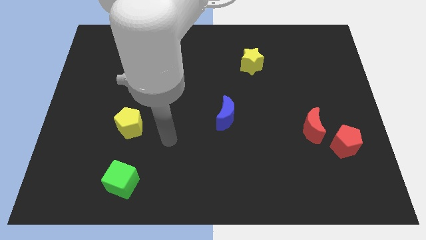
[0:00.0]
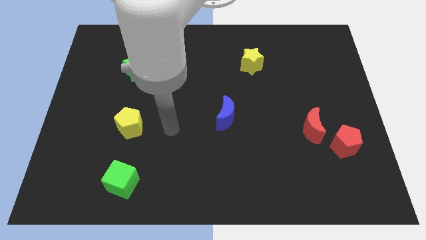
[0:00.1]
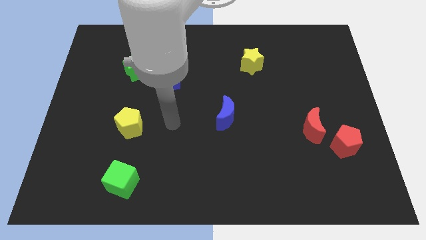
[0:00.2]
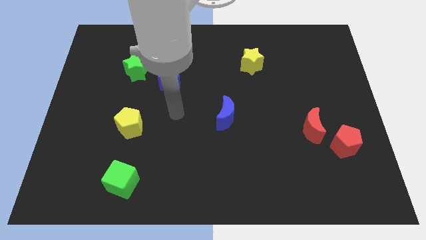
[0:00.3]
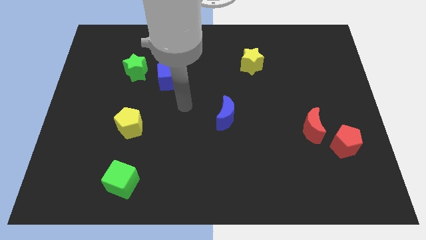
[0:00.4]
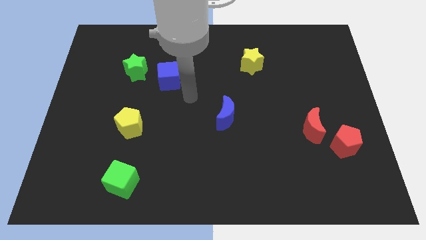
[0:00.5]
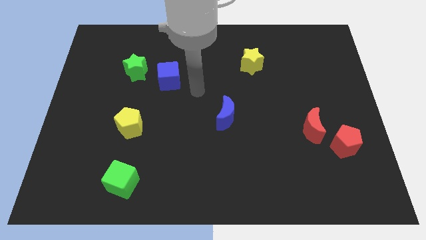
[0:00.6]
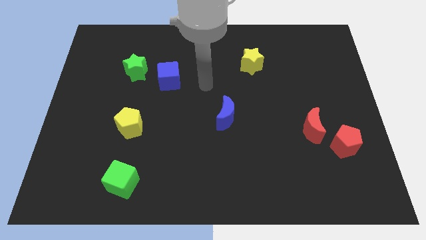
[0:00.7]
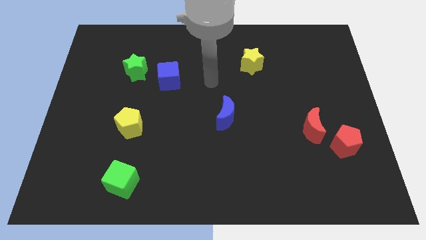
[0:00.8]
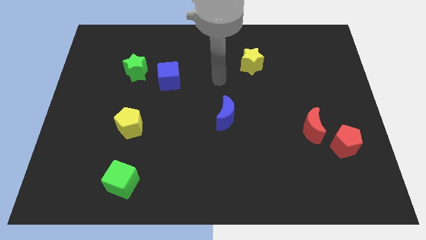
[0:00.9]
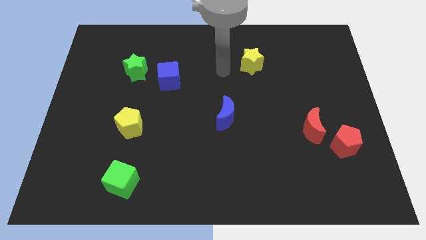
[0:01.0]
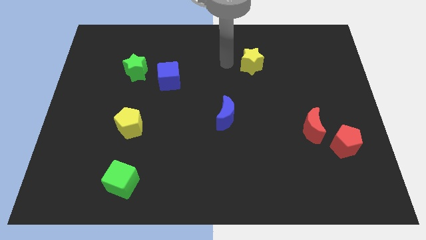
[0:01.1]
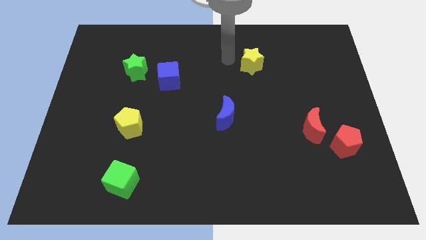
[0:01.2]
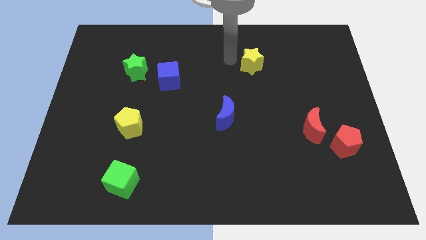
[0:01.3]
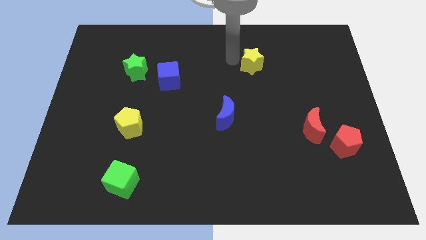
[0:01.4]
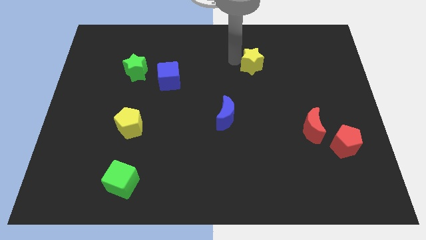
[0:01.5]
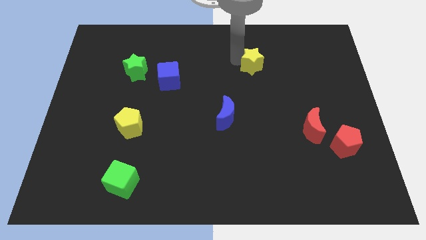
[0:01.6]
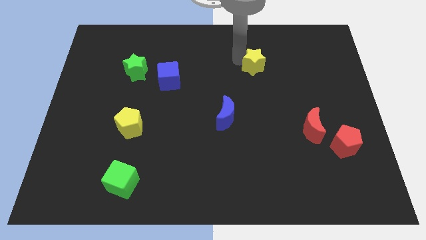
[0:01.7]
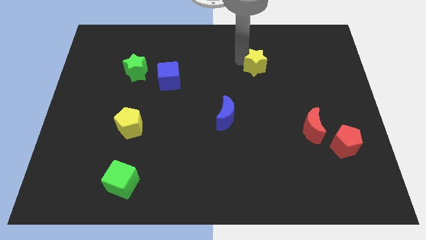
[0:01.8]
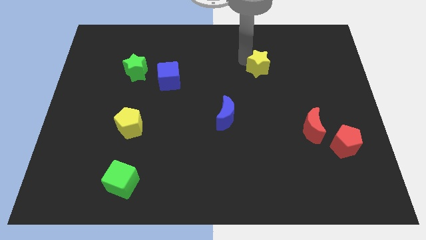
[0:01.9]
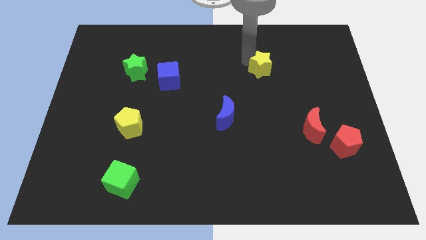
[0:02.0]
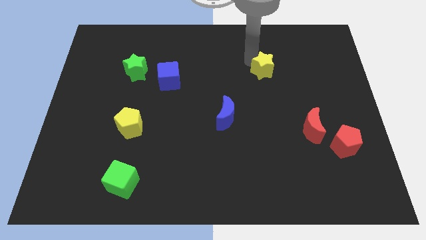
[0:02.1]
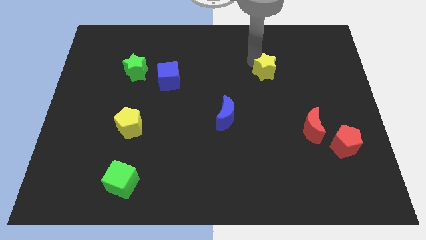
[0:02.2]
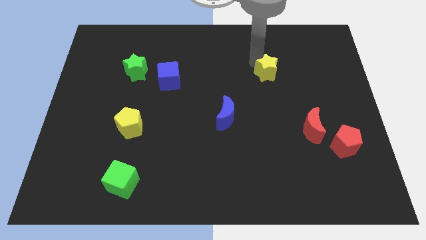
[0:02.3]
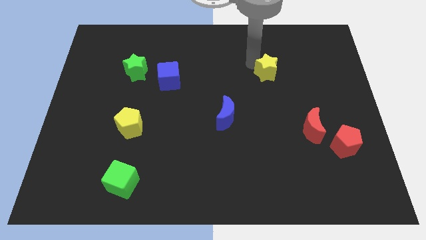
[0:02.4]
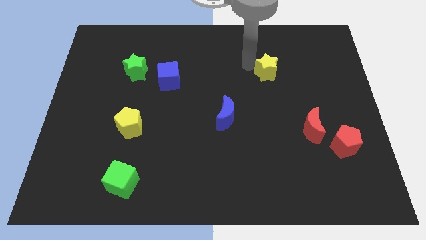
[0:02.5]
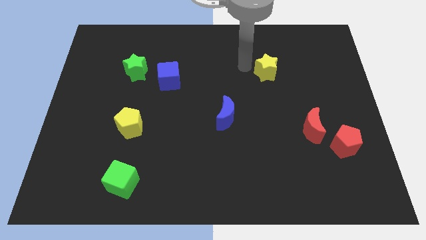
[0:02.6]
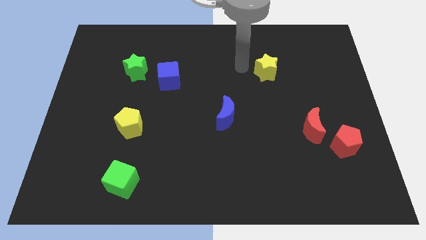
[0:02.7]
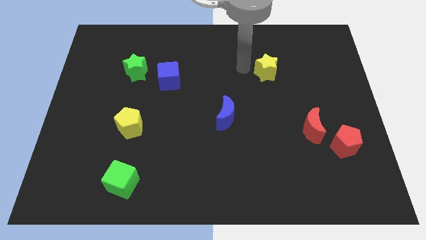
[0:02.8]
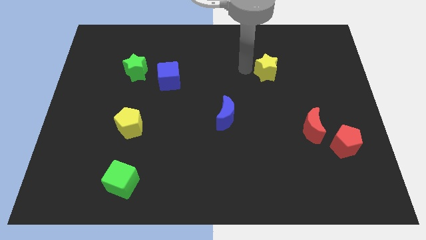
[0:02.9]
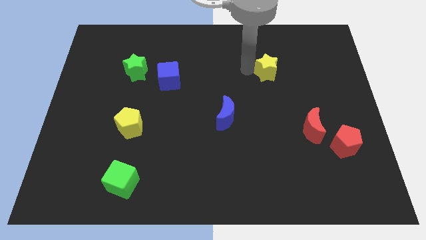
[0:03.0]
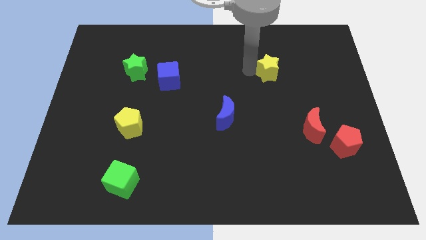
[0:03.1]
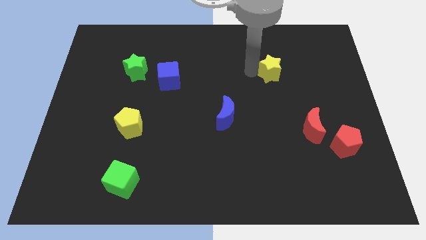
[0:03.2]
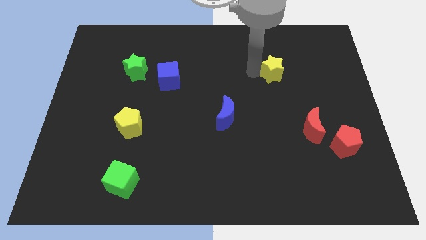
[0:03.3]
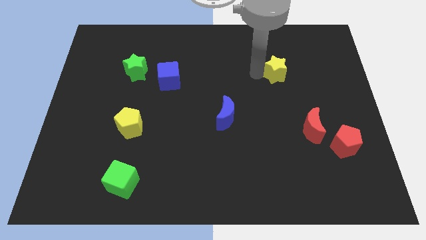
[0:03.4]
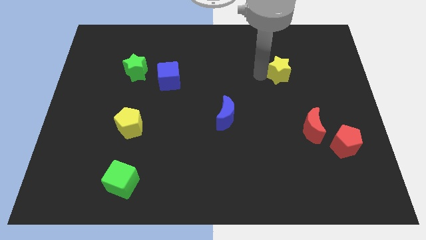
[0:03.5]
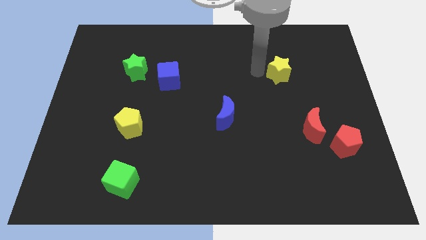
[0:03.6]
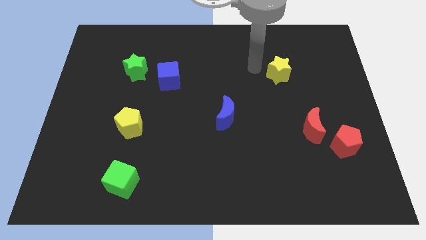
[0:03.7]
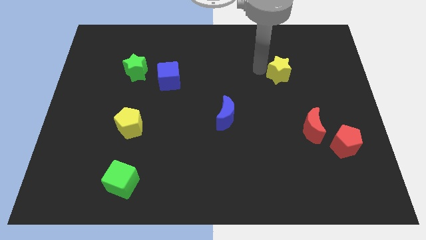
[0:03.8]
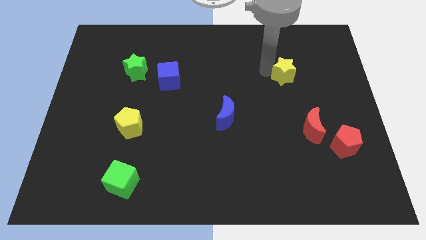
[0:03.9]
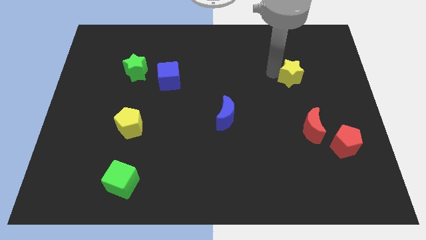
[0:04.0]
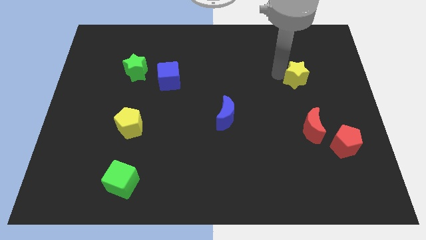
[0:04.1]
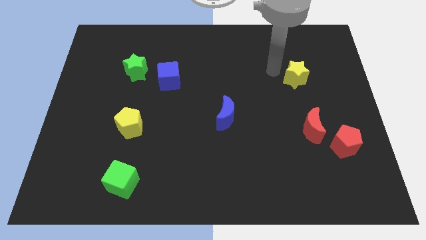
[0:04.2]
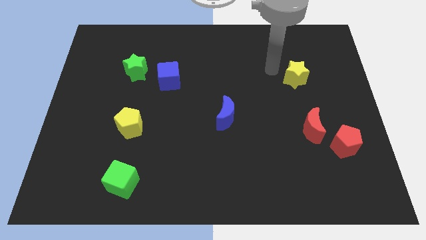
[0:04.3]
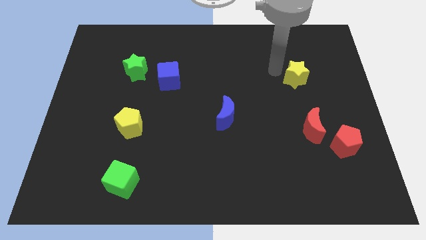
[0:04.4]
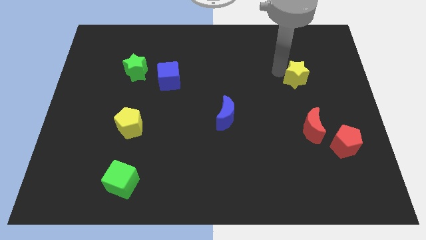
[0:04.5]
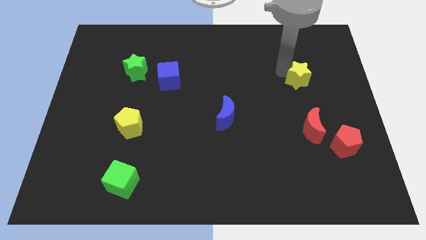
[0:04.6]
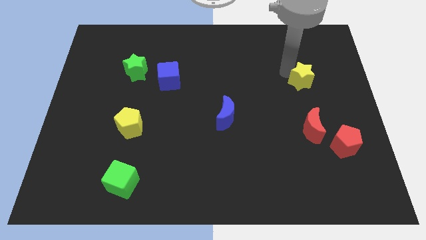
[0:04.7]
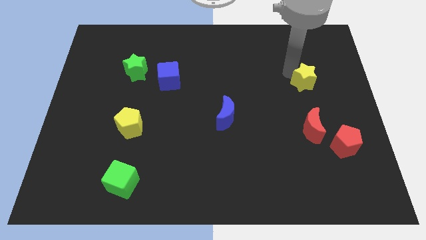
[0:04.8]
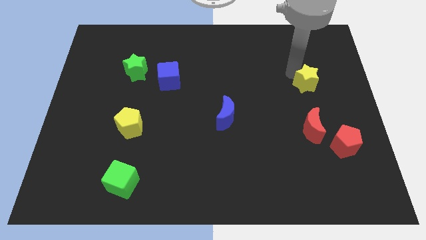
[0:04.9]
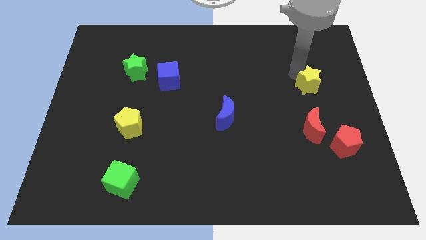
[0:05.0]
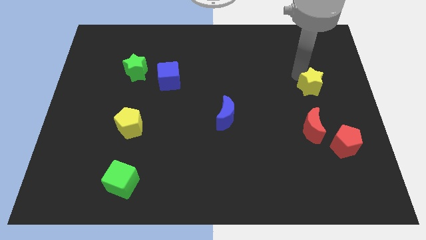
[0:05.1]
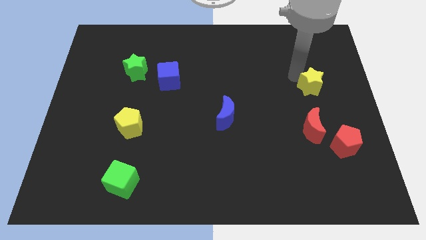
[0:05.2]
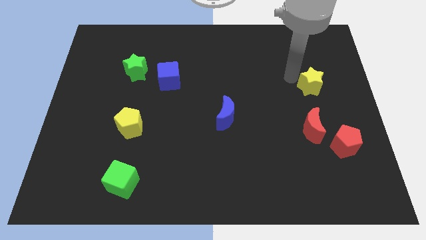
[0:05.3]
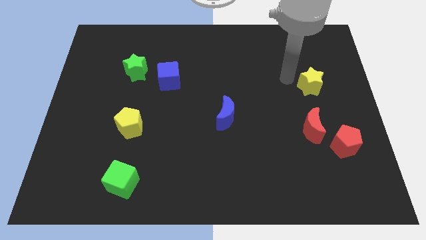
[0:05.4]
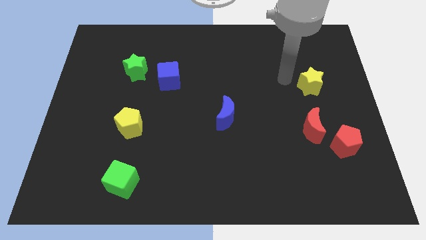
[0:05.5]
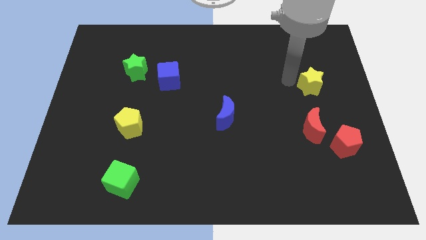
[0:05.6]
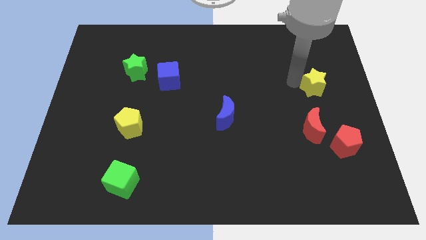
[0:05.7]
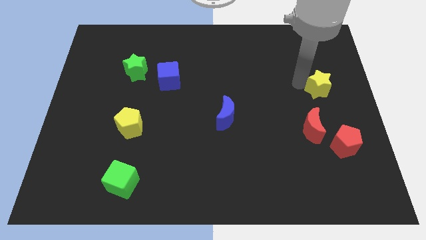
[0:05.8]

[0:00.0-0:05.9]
move the yellow star to the center right

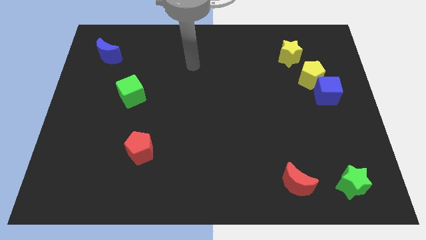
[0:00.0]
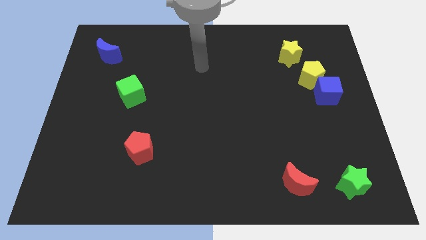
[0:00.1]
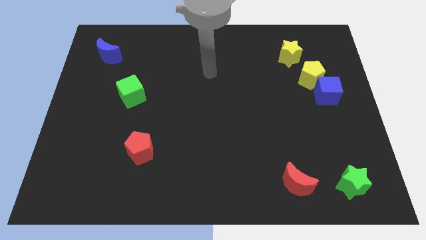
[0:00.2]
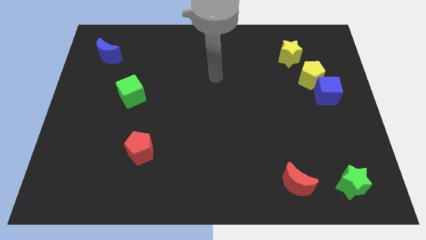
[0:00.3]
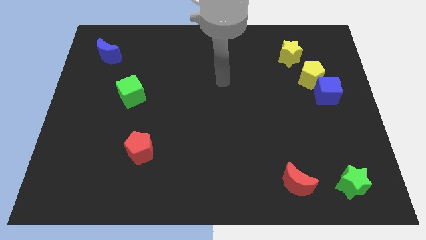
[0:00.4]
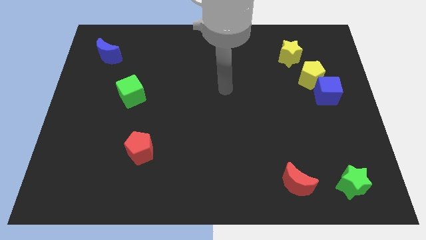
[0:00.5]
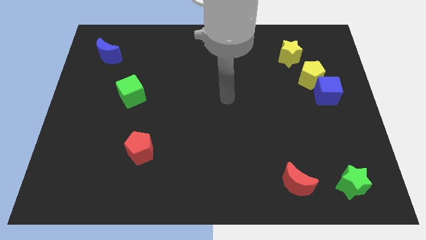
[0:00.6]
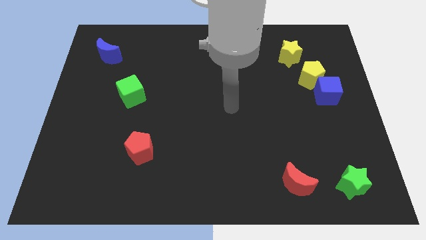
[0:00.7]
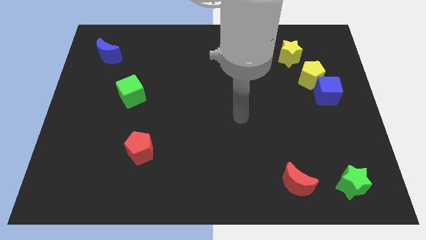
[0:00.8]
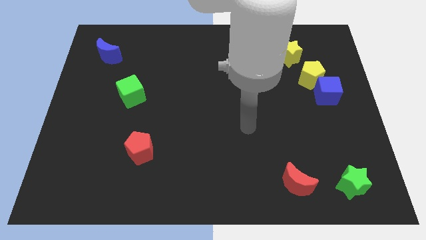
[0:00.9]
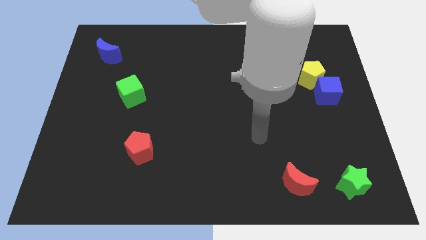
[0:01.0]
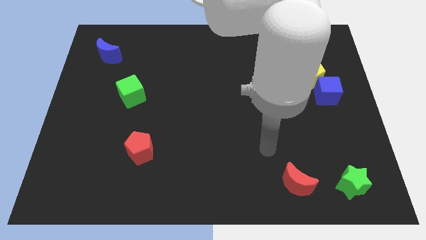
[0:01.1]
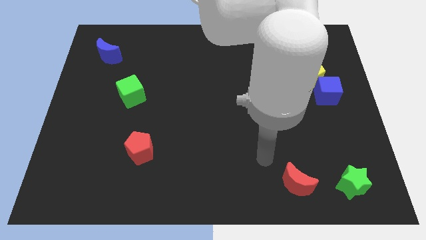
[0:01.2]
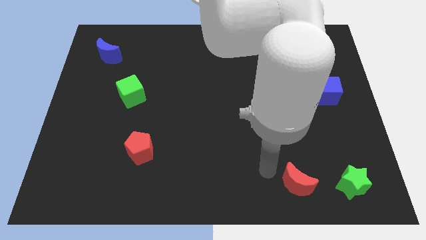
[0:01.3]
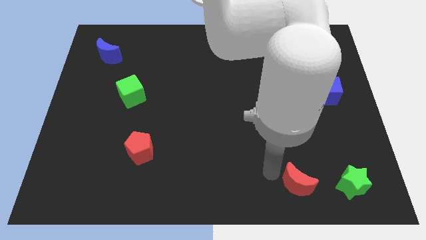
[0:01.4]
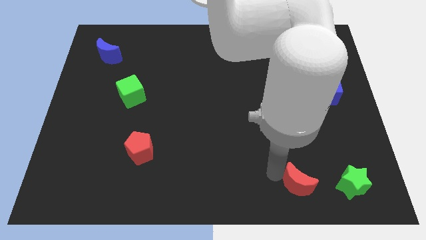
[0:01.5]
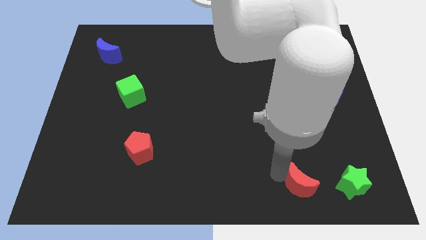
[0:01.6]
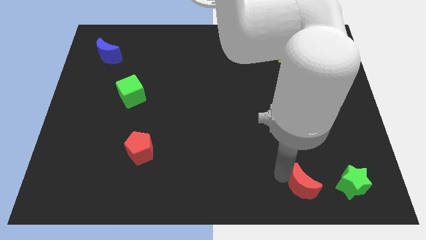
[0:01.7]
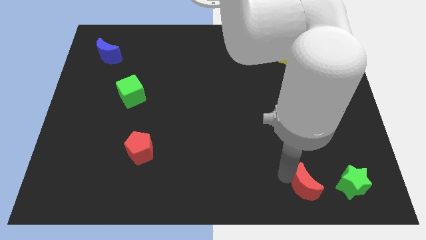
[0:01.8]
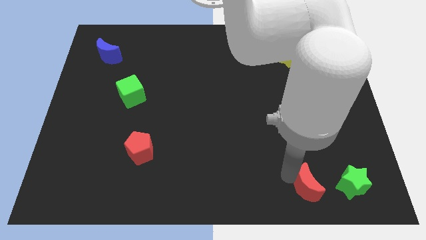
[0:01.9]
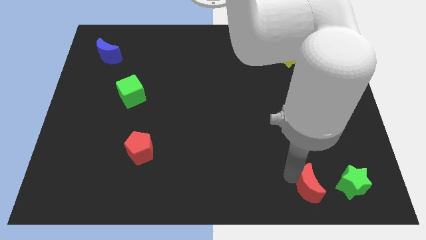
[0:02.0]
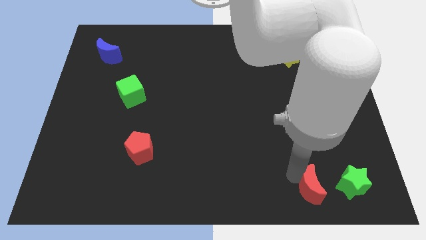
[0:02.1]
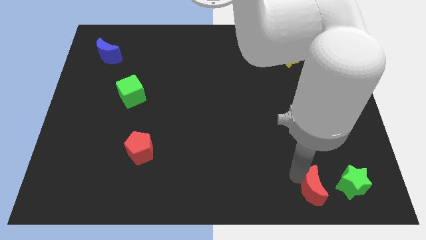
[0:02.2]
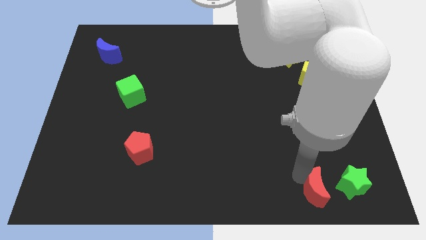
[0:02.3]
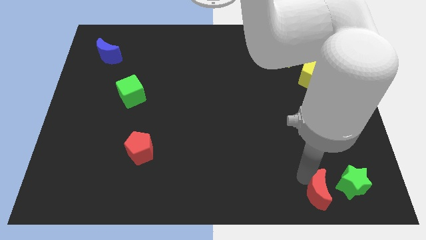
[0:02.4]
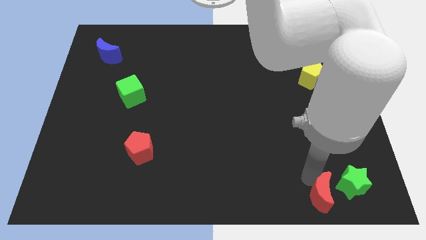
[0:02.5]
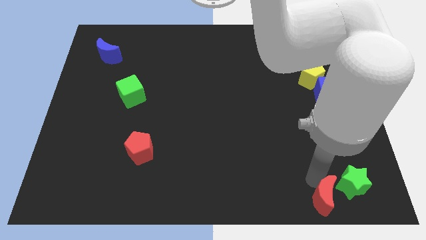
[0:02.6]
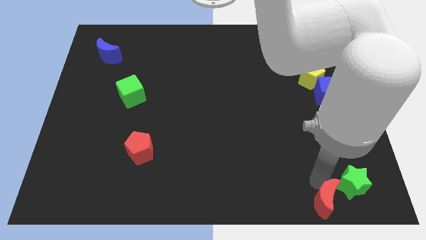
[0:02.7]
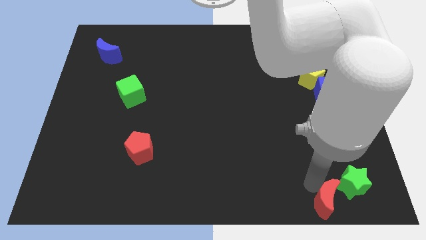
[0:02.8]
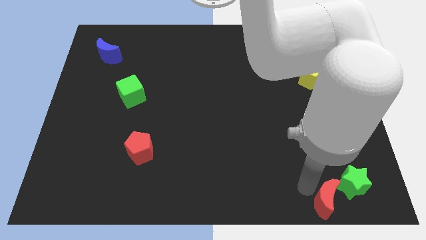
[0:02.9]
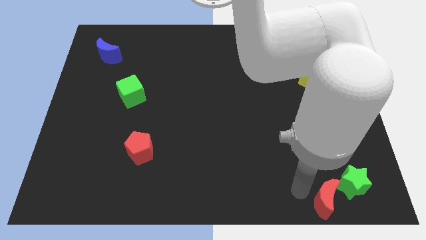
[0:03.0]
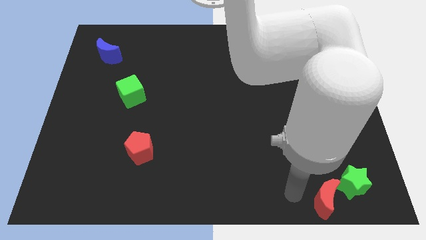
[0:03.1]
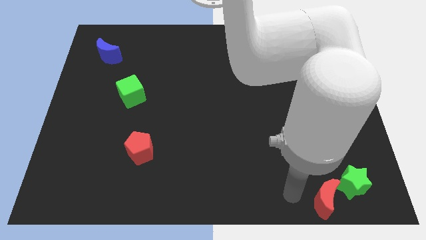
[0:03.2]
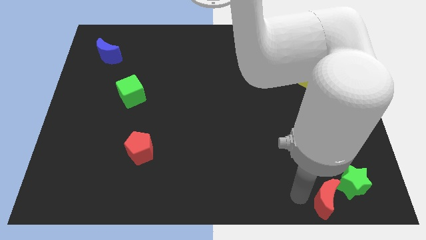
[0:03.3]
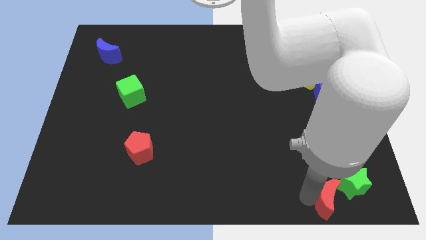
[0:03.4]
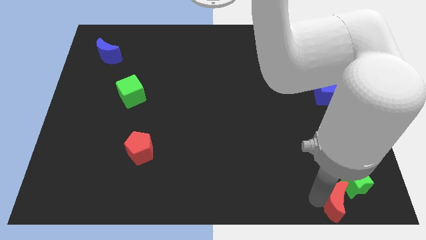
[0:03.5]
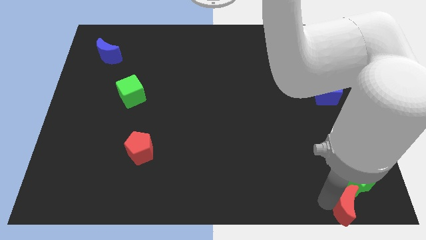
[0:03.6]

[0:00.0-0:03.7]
slide the red moon to the bottom right of the board
